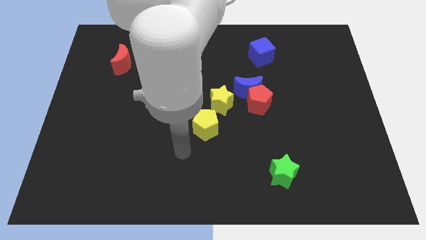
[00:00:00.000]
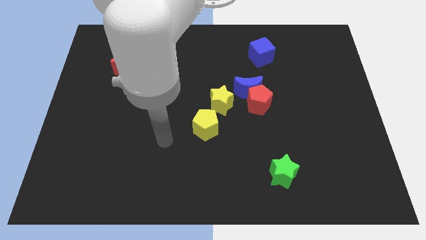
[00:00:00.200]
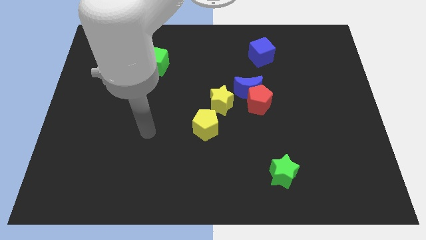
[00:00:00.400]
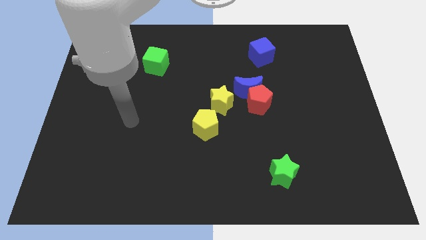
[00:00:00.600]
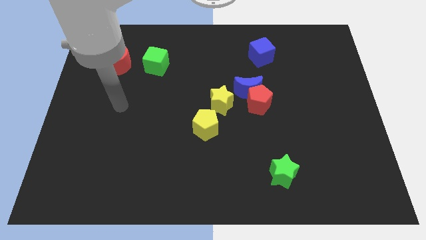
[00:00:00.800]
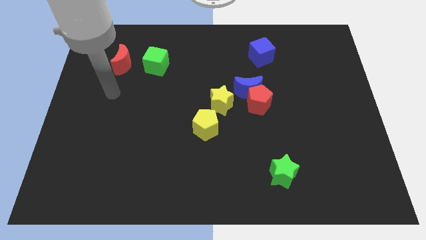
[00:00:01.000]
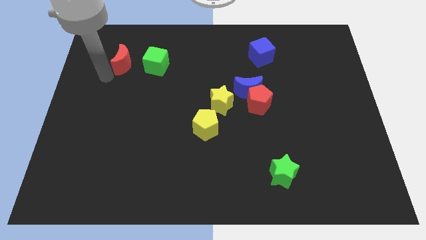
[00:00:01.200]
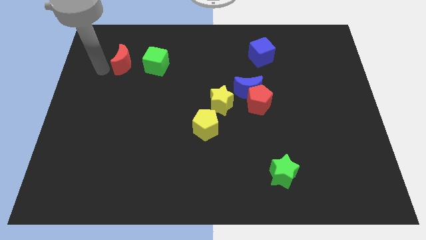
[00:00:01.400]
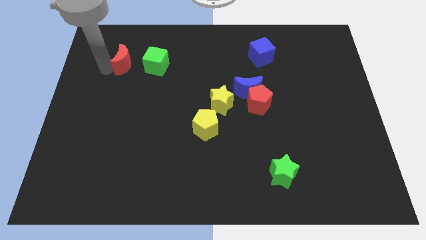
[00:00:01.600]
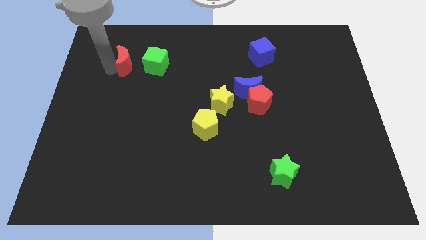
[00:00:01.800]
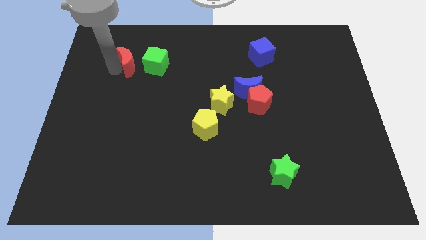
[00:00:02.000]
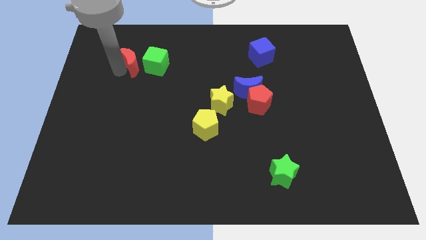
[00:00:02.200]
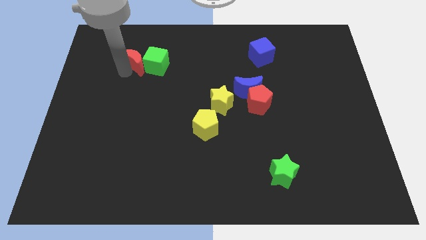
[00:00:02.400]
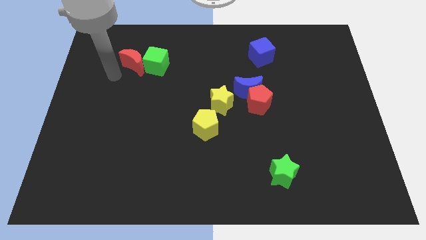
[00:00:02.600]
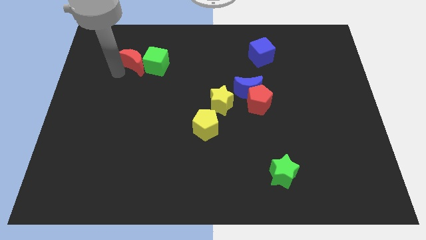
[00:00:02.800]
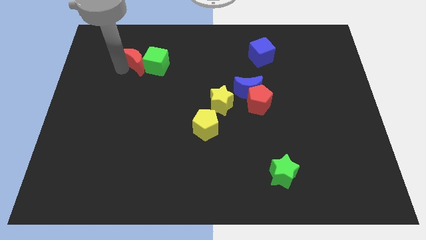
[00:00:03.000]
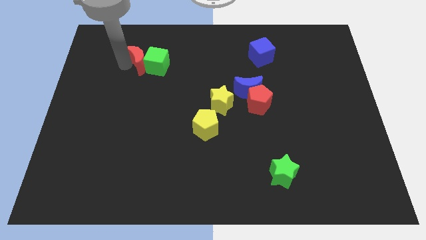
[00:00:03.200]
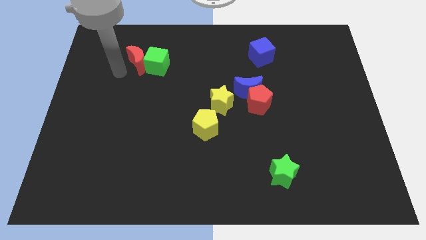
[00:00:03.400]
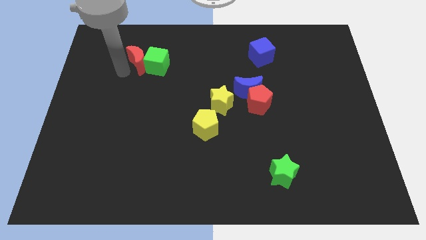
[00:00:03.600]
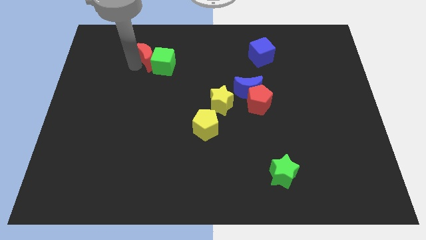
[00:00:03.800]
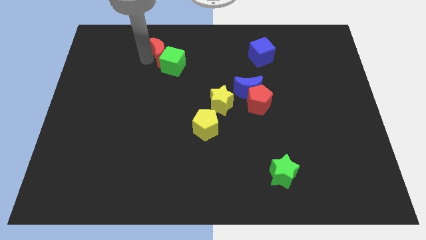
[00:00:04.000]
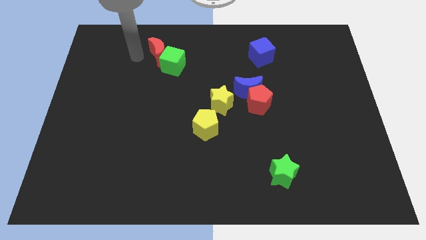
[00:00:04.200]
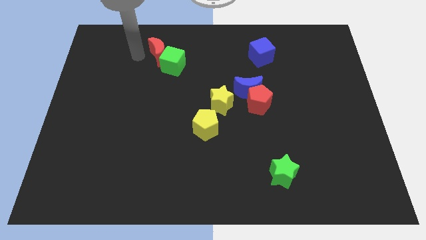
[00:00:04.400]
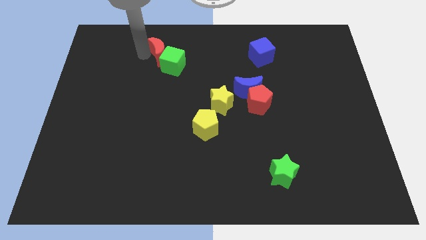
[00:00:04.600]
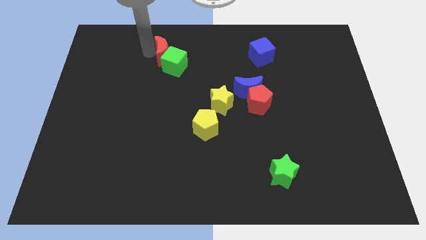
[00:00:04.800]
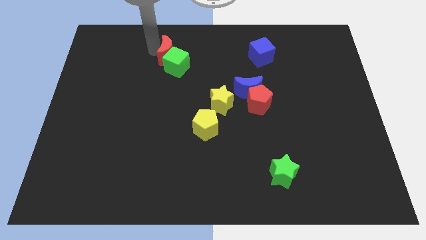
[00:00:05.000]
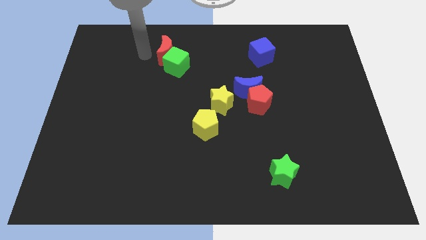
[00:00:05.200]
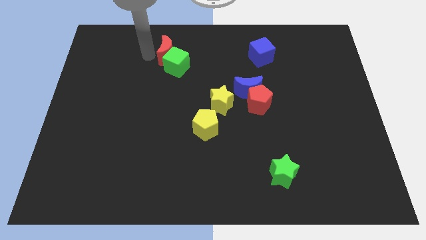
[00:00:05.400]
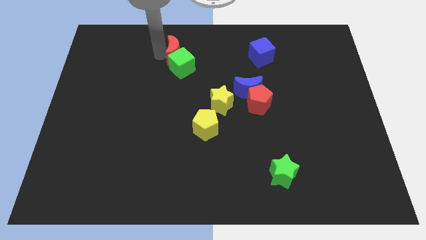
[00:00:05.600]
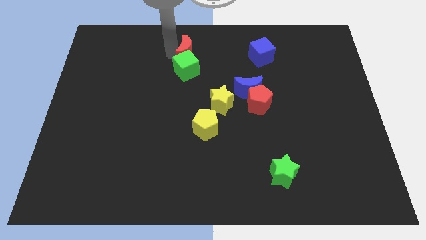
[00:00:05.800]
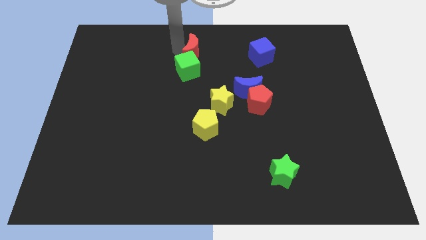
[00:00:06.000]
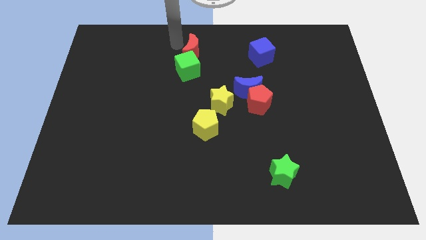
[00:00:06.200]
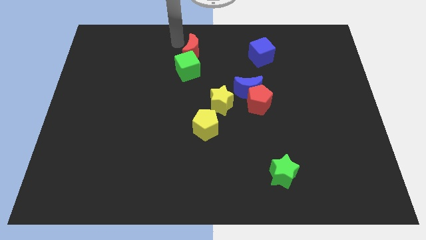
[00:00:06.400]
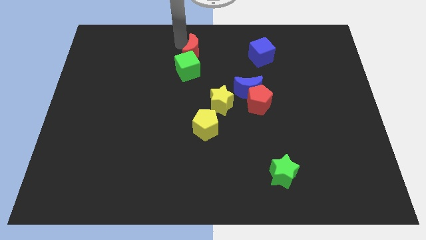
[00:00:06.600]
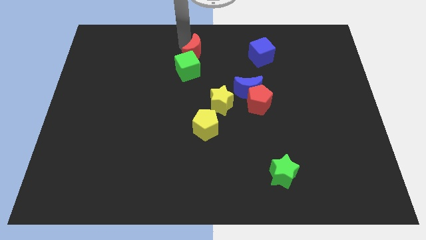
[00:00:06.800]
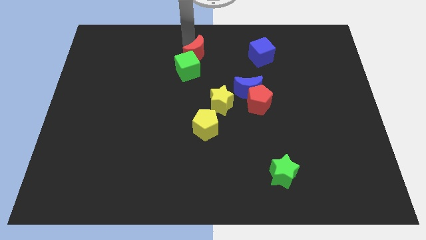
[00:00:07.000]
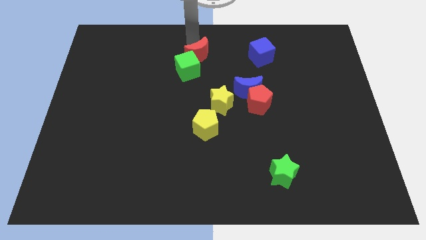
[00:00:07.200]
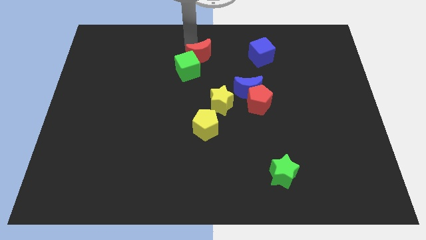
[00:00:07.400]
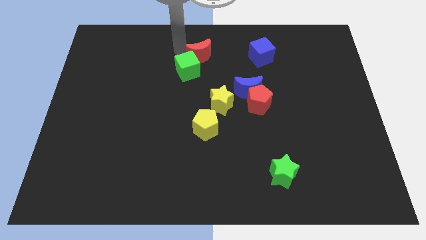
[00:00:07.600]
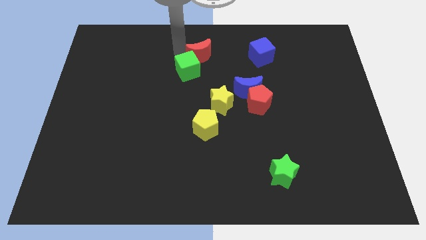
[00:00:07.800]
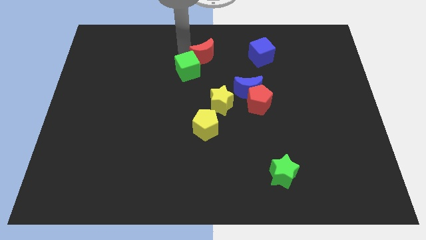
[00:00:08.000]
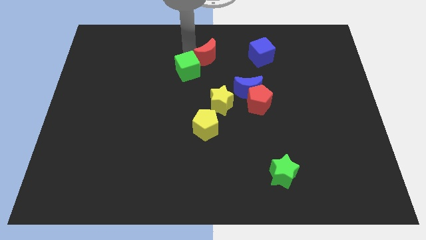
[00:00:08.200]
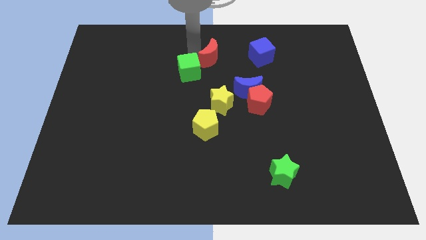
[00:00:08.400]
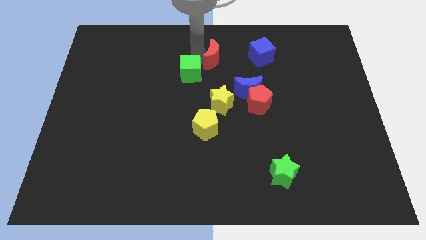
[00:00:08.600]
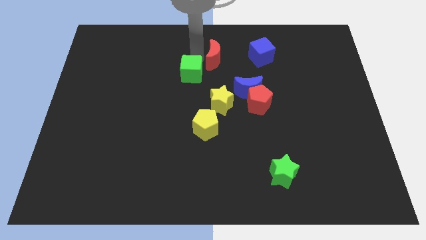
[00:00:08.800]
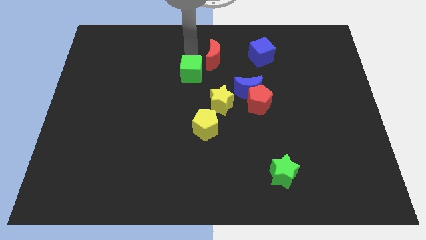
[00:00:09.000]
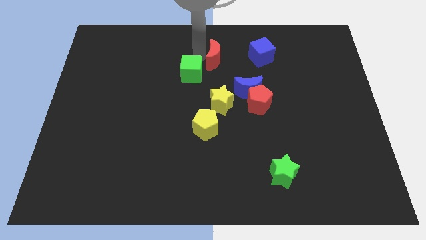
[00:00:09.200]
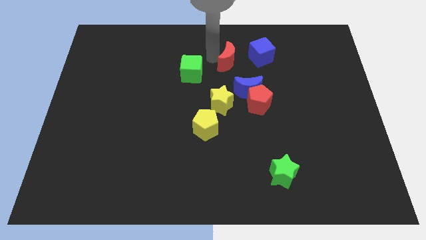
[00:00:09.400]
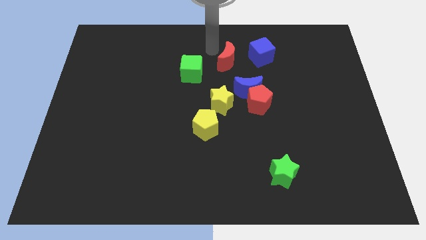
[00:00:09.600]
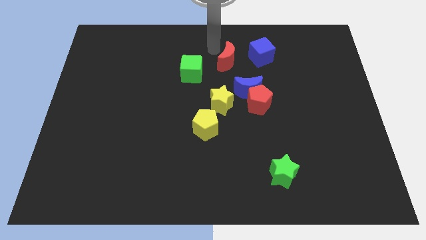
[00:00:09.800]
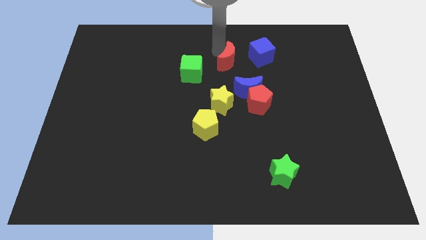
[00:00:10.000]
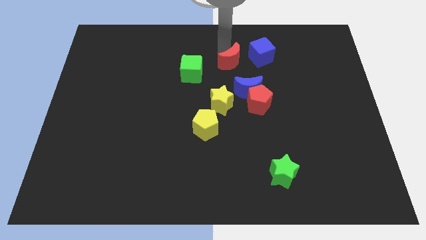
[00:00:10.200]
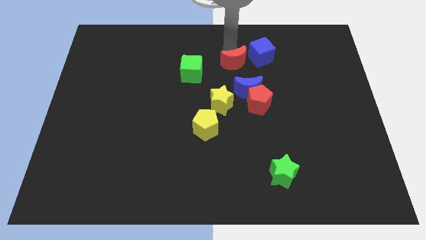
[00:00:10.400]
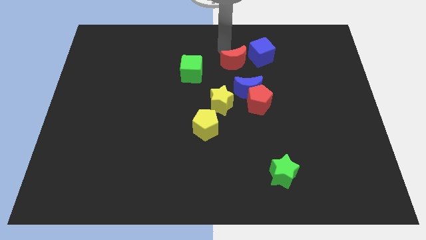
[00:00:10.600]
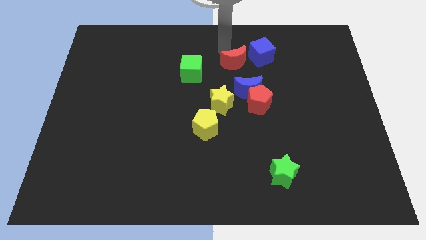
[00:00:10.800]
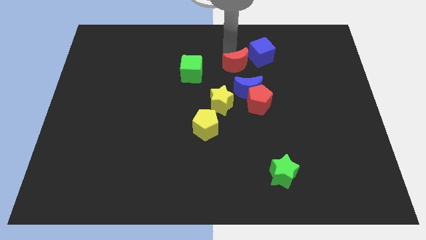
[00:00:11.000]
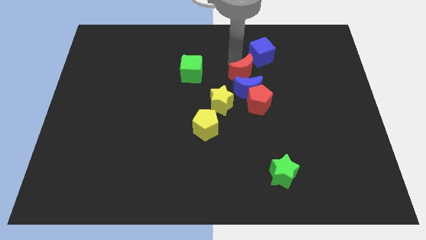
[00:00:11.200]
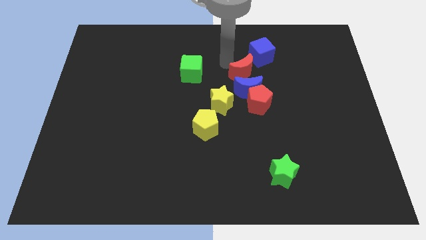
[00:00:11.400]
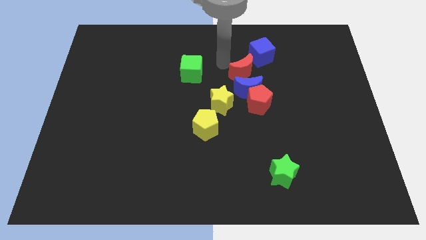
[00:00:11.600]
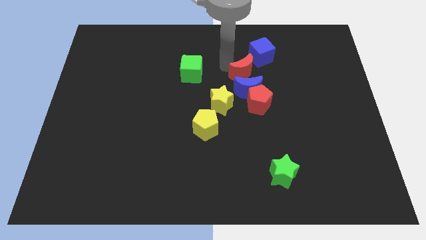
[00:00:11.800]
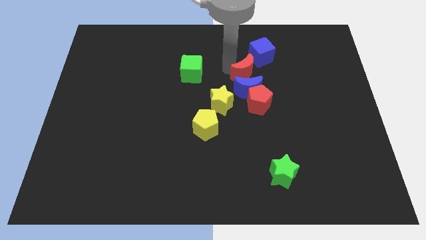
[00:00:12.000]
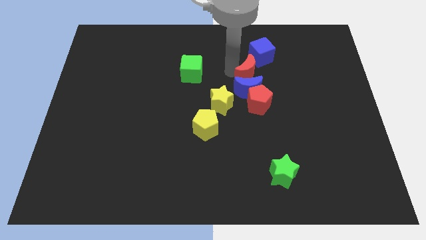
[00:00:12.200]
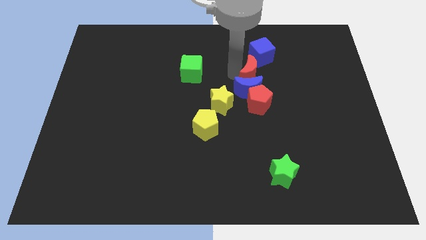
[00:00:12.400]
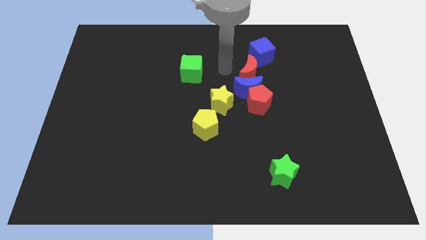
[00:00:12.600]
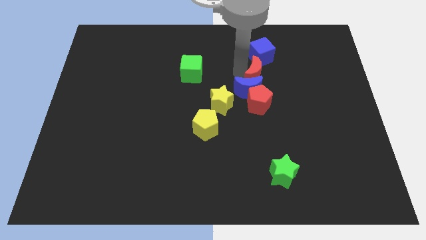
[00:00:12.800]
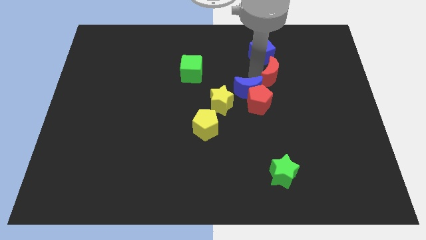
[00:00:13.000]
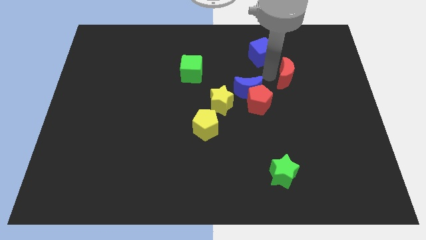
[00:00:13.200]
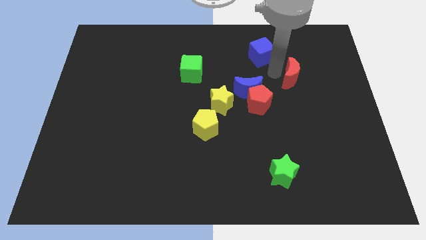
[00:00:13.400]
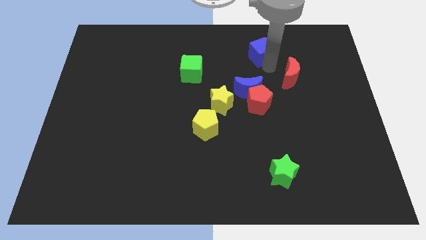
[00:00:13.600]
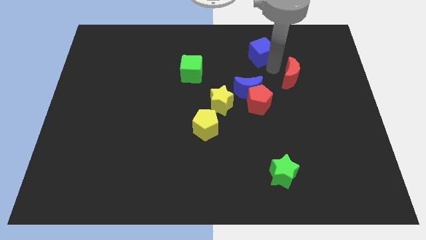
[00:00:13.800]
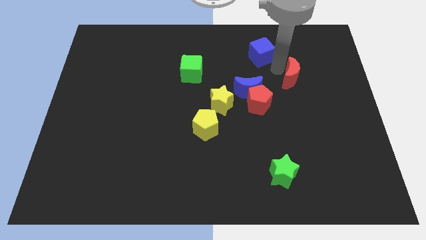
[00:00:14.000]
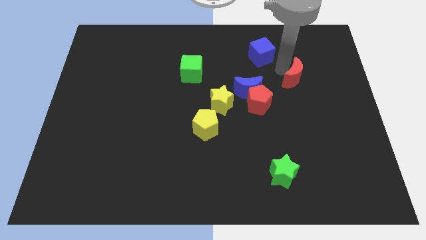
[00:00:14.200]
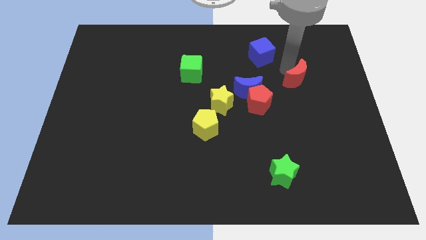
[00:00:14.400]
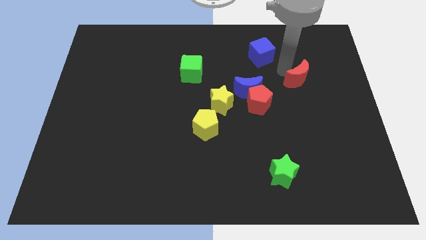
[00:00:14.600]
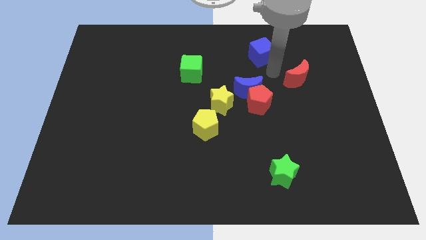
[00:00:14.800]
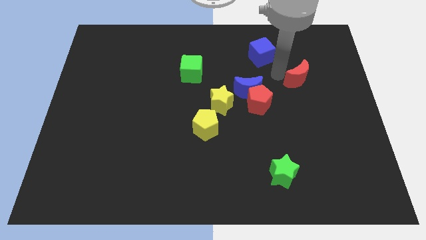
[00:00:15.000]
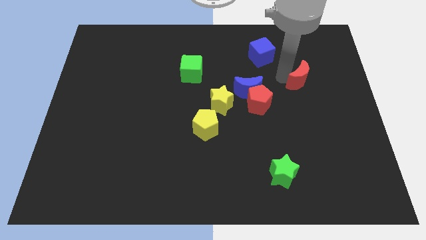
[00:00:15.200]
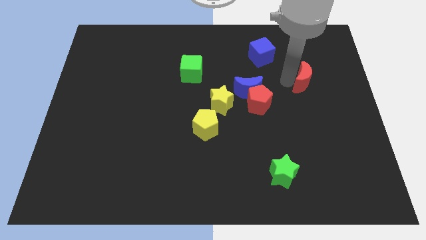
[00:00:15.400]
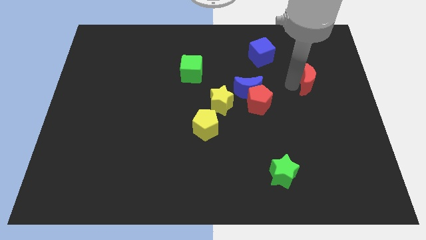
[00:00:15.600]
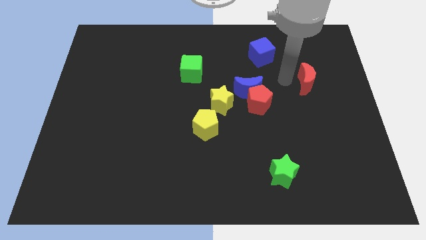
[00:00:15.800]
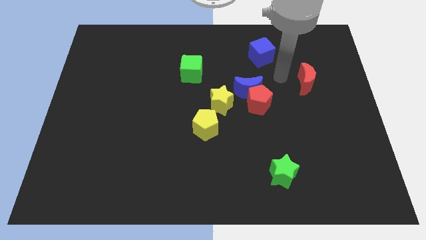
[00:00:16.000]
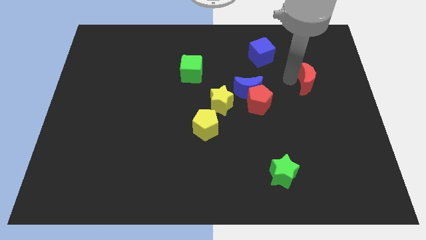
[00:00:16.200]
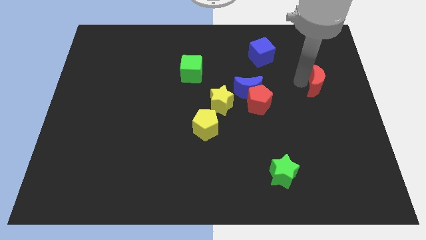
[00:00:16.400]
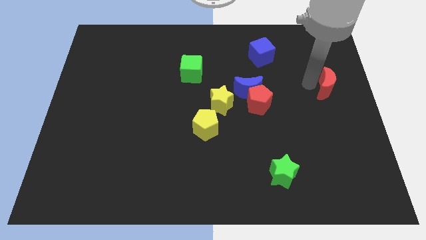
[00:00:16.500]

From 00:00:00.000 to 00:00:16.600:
push the red moon to the center right
